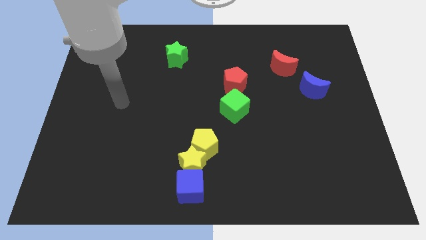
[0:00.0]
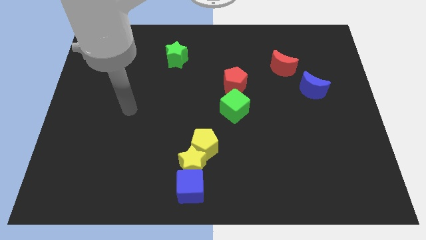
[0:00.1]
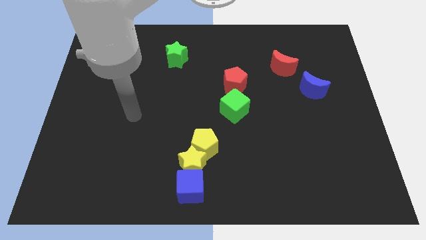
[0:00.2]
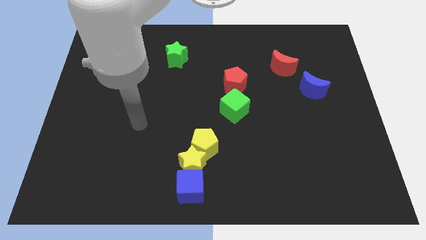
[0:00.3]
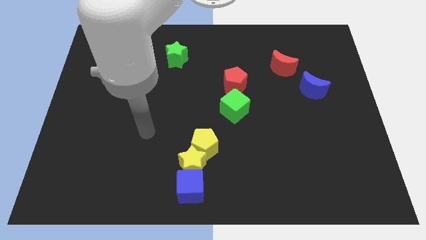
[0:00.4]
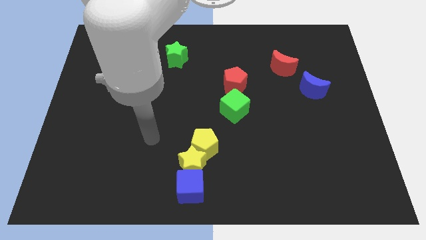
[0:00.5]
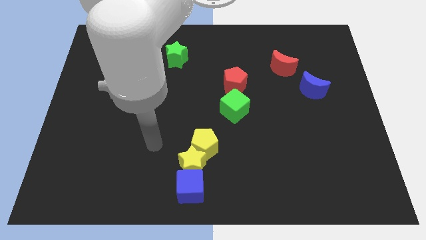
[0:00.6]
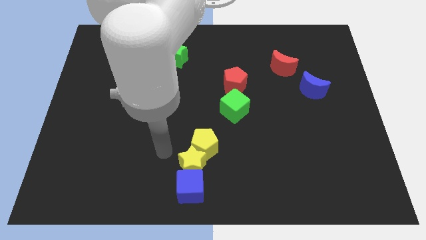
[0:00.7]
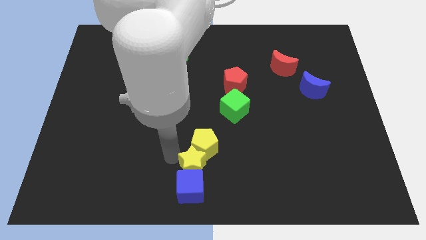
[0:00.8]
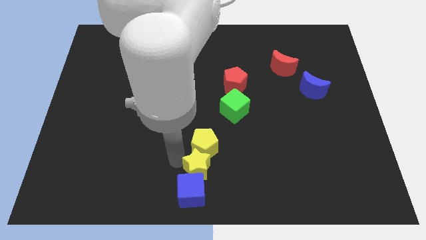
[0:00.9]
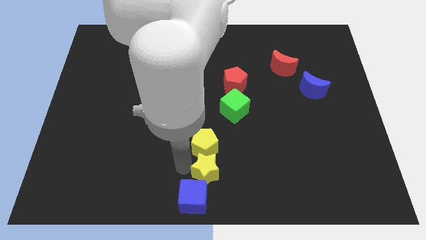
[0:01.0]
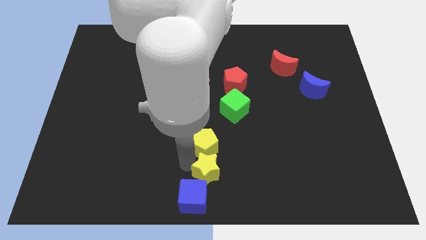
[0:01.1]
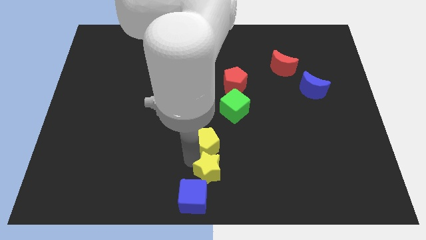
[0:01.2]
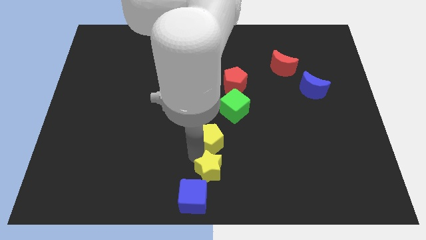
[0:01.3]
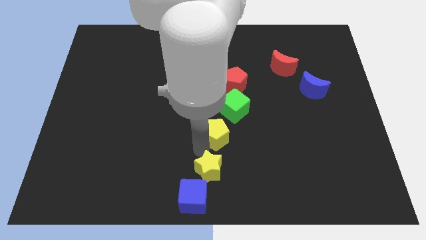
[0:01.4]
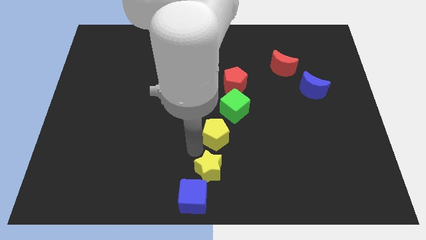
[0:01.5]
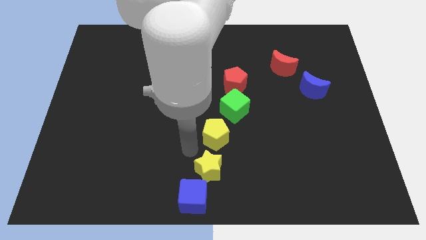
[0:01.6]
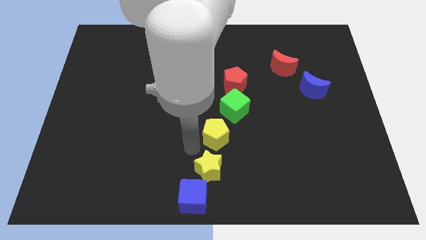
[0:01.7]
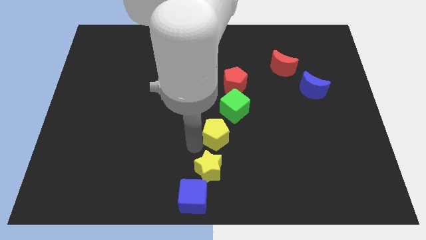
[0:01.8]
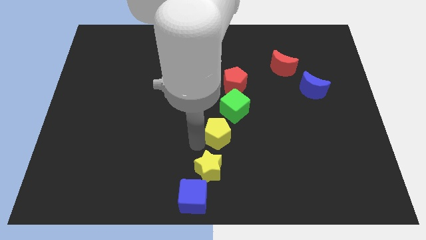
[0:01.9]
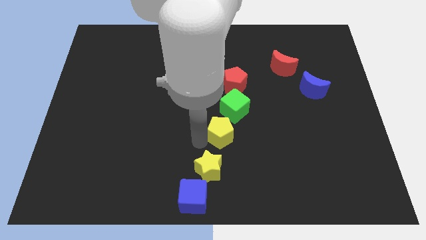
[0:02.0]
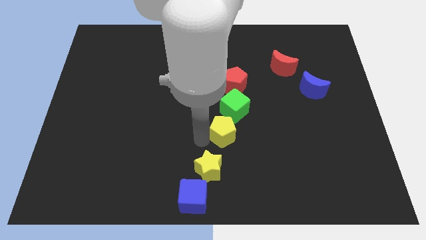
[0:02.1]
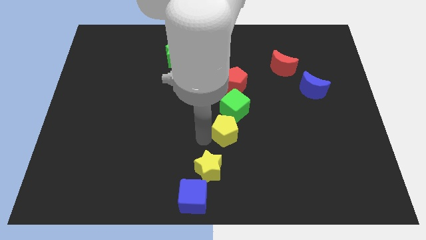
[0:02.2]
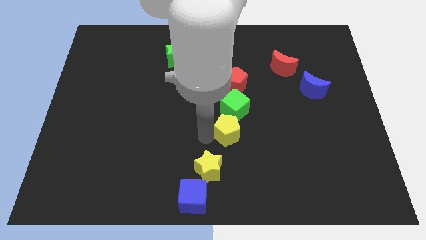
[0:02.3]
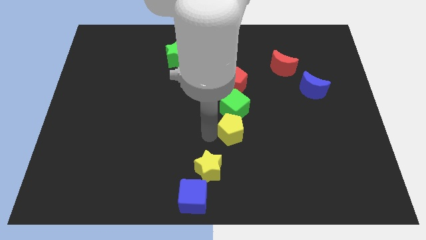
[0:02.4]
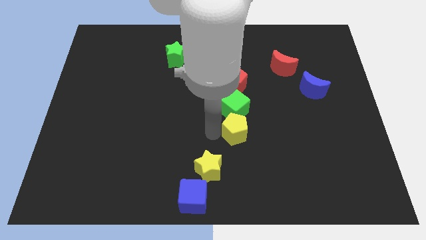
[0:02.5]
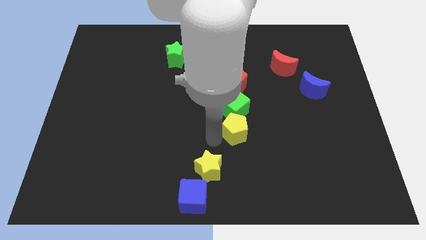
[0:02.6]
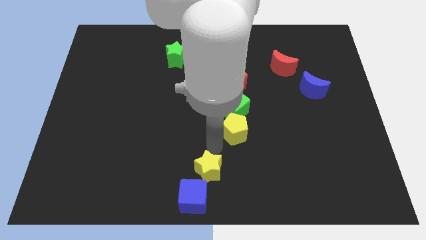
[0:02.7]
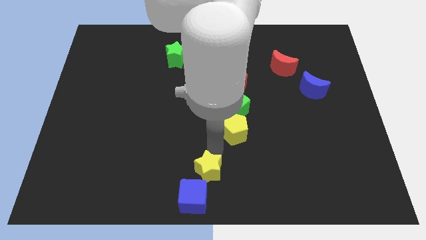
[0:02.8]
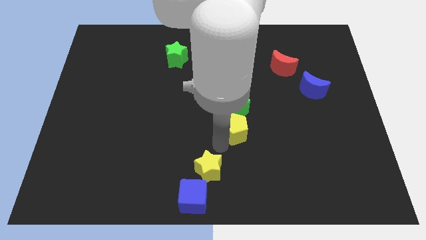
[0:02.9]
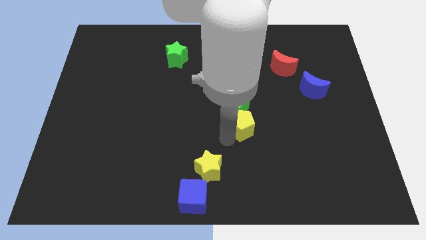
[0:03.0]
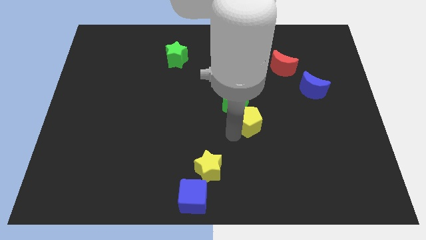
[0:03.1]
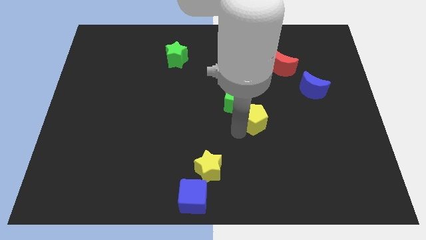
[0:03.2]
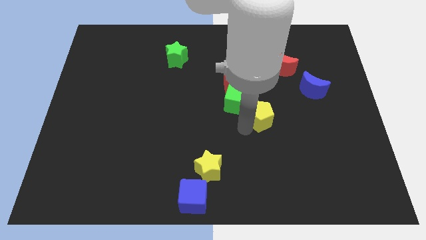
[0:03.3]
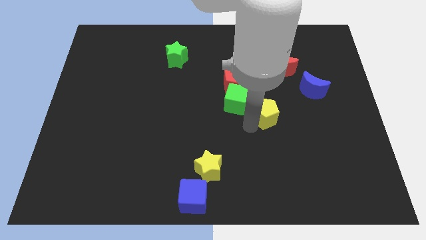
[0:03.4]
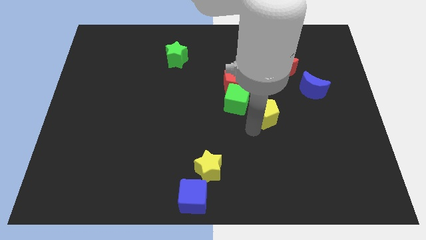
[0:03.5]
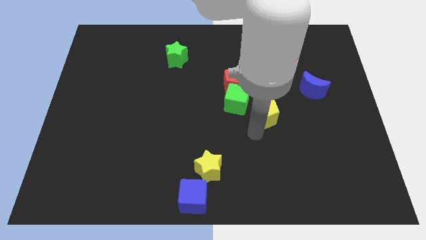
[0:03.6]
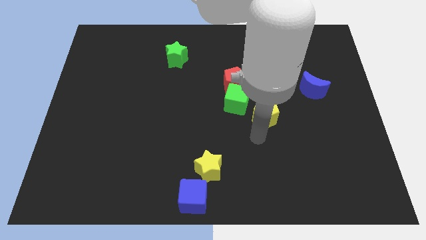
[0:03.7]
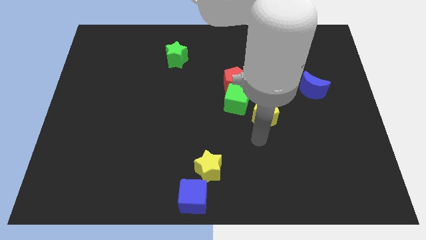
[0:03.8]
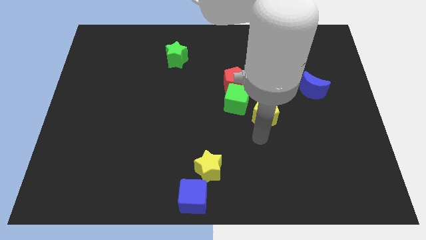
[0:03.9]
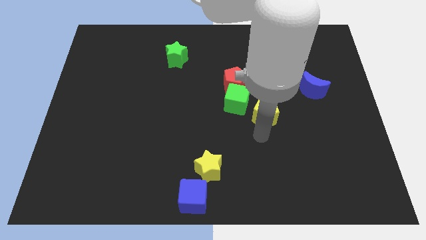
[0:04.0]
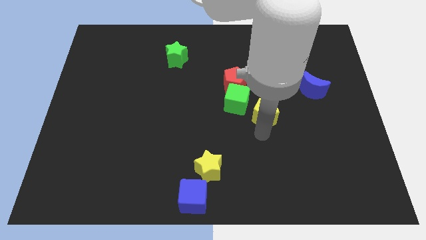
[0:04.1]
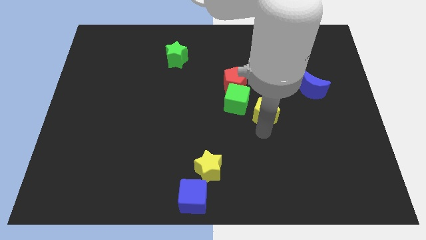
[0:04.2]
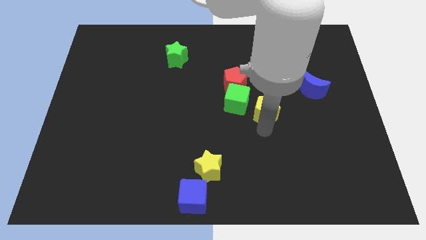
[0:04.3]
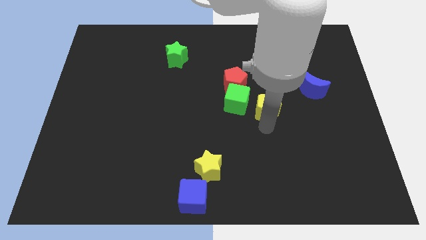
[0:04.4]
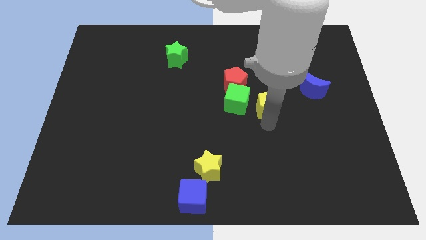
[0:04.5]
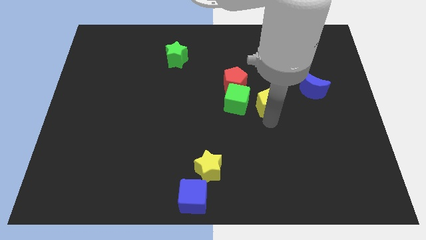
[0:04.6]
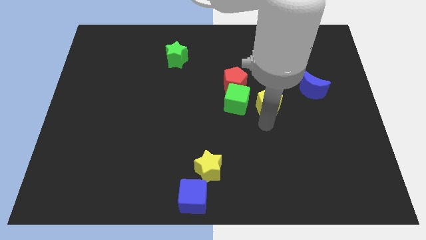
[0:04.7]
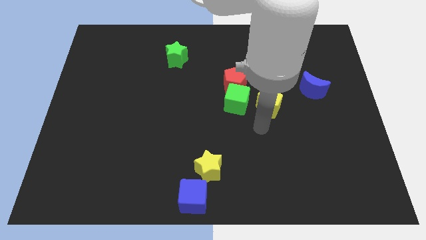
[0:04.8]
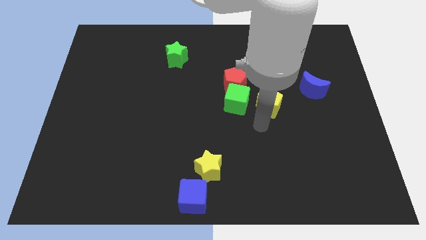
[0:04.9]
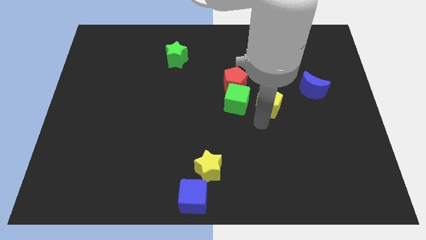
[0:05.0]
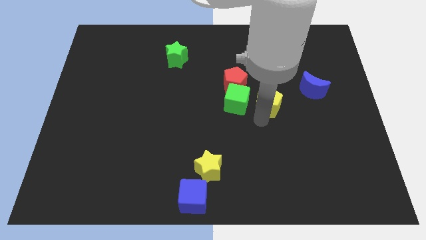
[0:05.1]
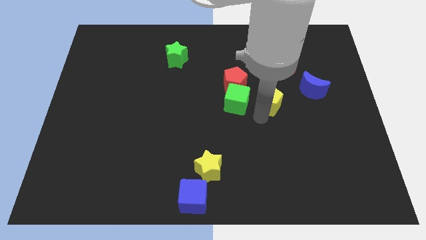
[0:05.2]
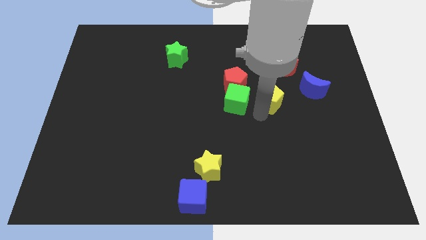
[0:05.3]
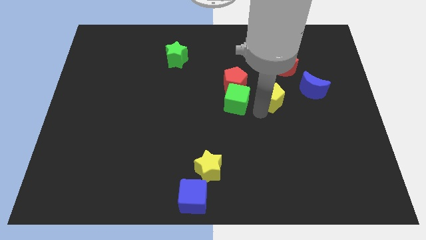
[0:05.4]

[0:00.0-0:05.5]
slide the yellow pentagon right of the red pentagon

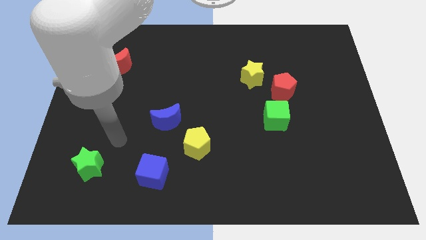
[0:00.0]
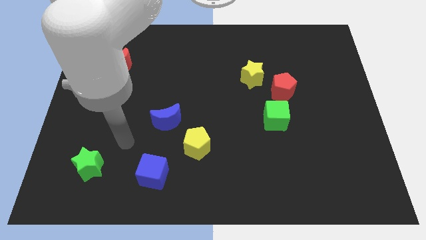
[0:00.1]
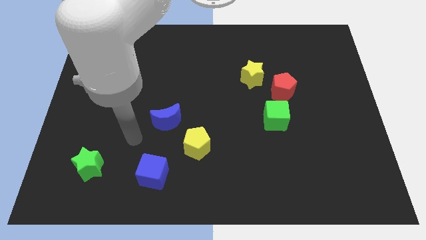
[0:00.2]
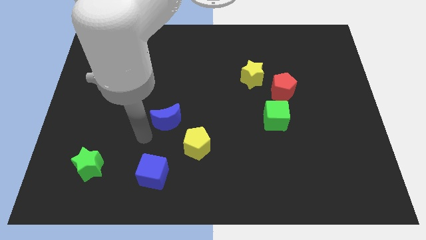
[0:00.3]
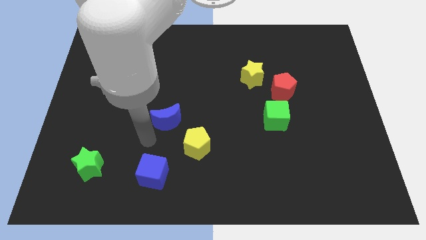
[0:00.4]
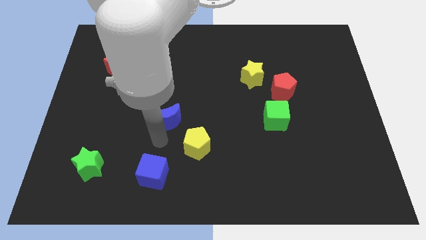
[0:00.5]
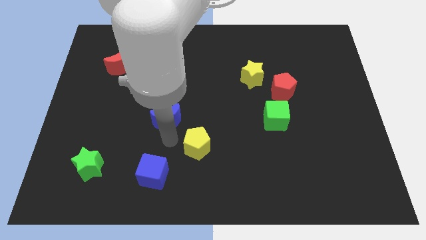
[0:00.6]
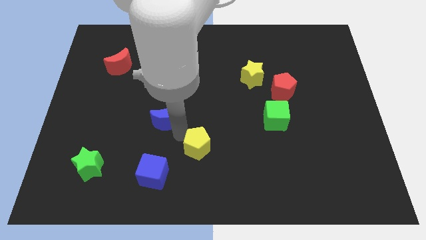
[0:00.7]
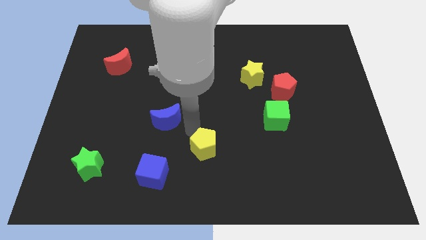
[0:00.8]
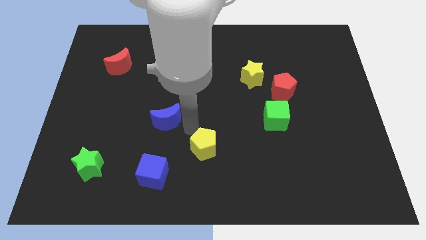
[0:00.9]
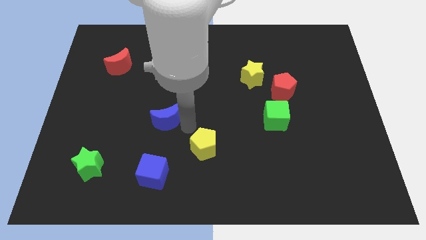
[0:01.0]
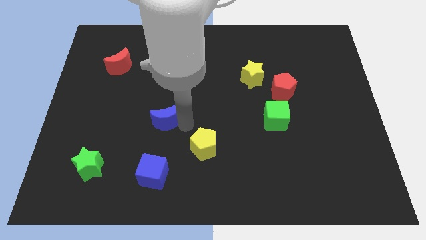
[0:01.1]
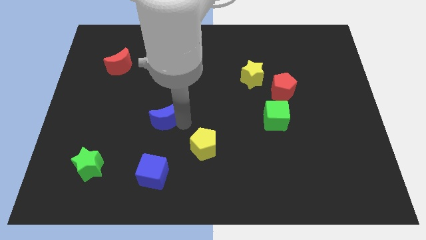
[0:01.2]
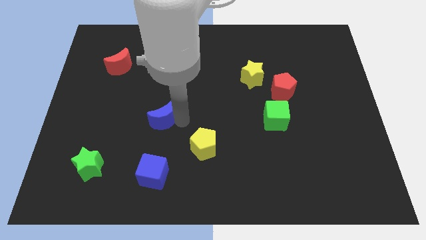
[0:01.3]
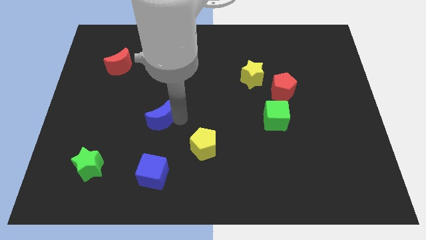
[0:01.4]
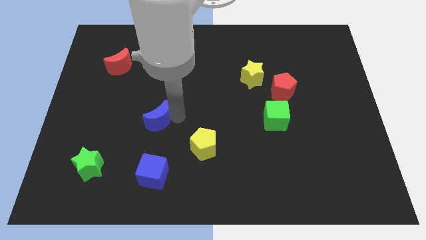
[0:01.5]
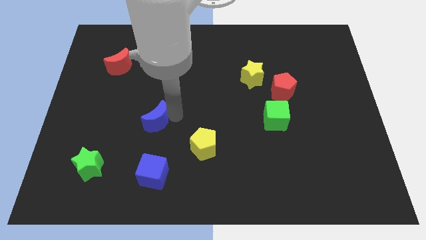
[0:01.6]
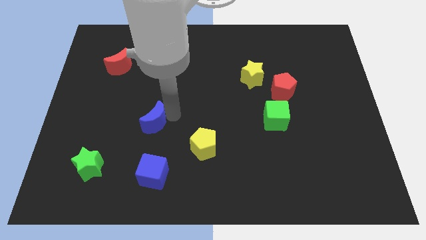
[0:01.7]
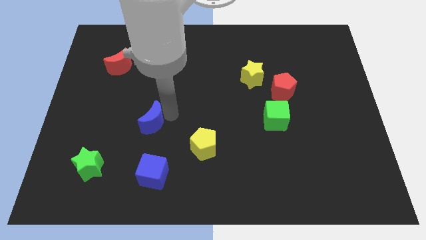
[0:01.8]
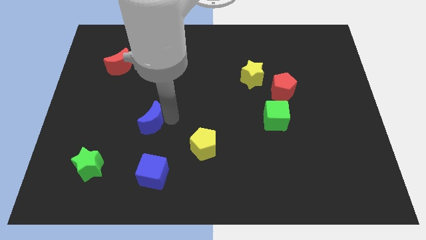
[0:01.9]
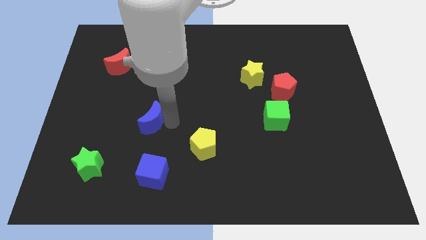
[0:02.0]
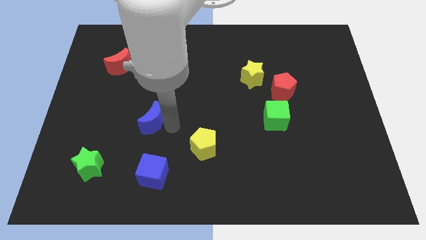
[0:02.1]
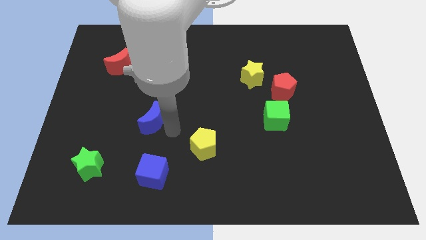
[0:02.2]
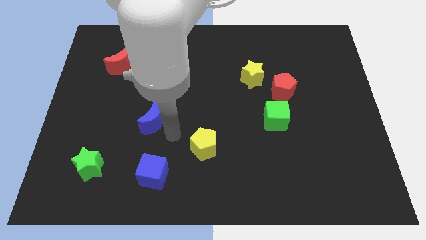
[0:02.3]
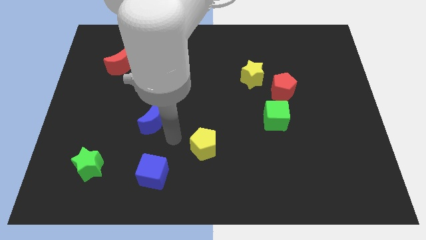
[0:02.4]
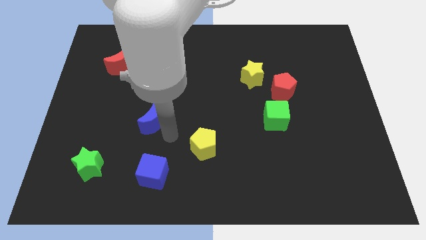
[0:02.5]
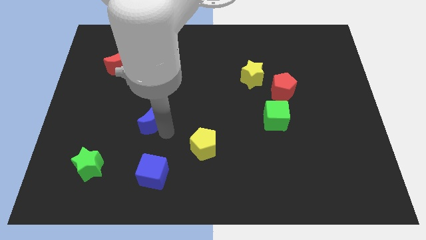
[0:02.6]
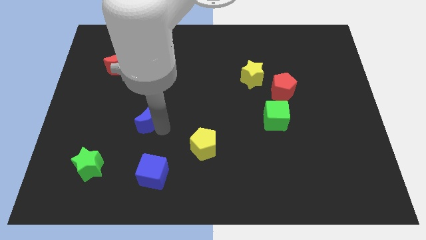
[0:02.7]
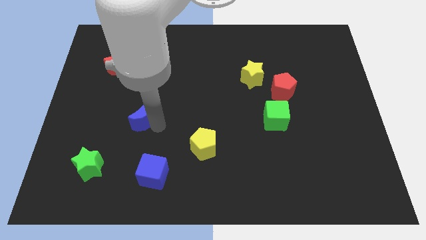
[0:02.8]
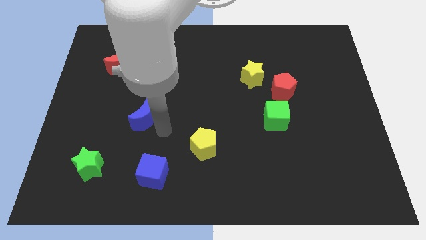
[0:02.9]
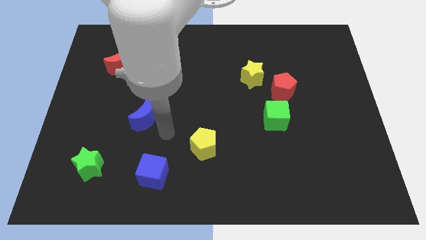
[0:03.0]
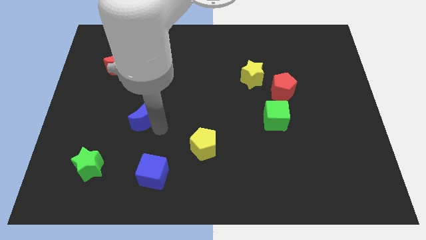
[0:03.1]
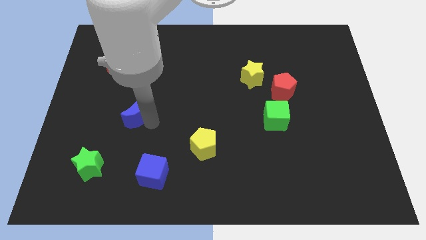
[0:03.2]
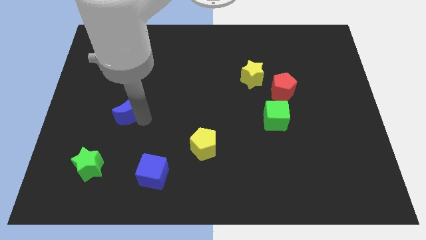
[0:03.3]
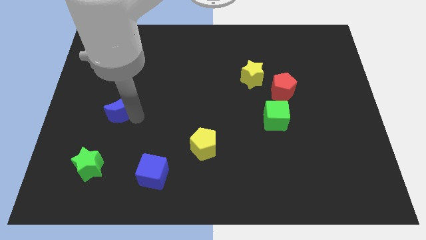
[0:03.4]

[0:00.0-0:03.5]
push the blue moon to the bottom side of the red moon
